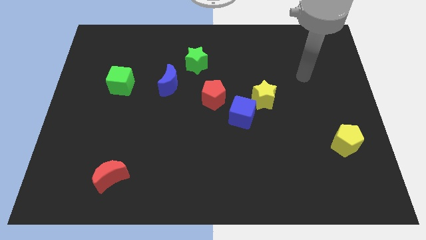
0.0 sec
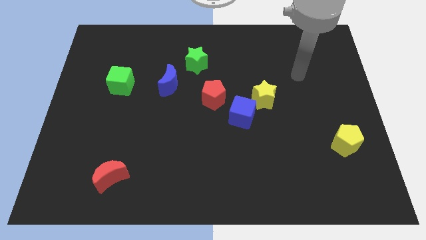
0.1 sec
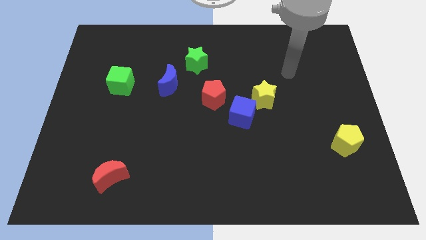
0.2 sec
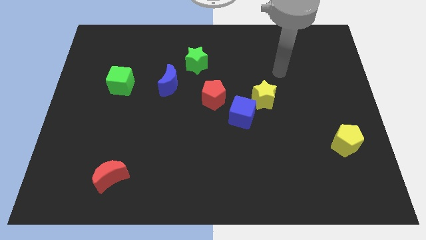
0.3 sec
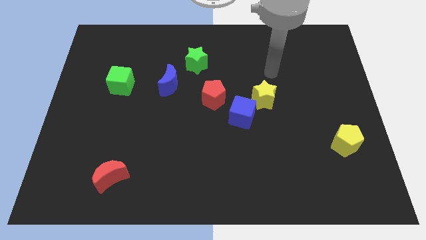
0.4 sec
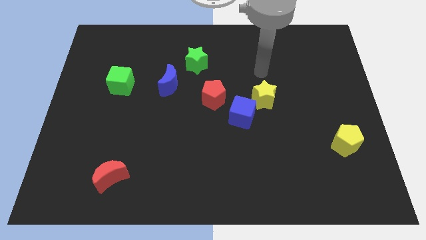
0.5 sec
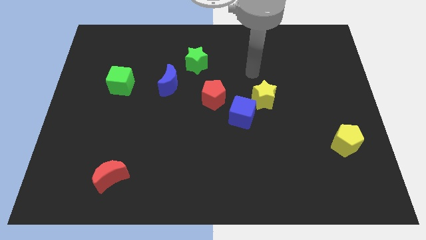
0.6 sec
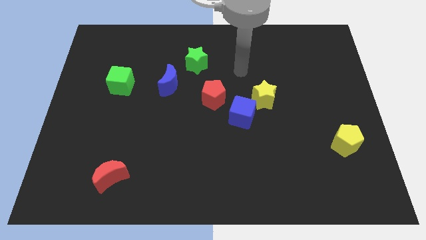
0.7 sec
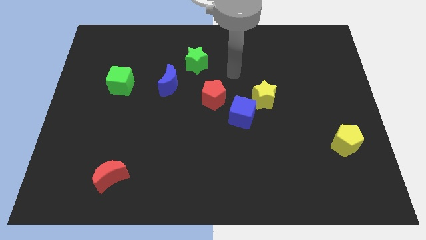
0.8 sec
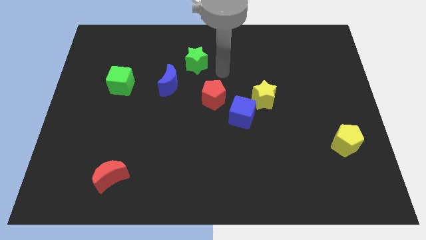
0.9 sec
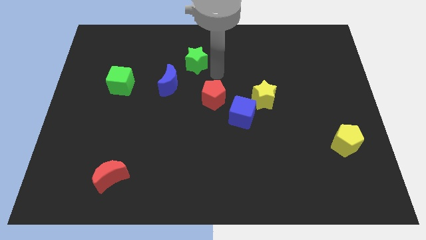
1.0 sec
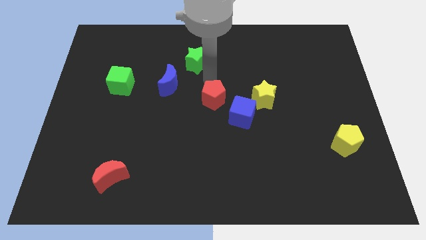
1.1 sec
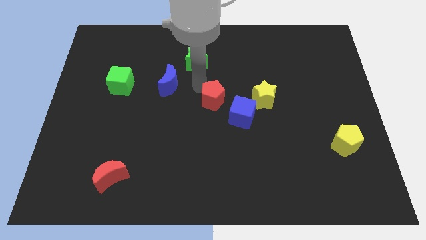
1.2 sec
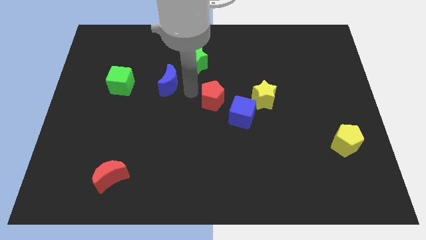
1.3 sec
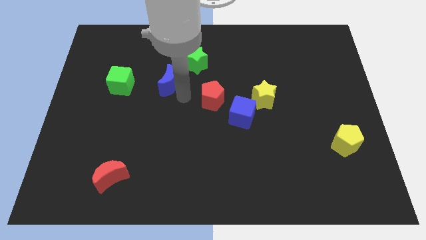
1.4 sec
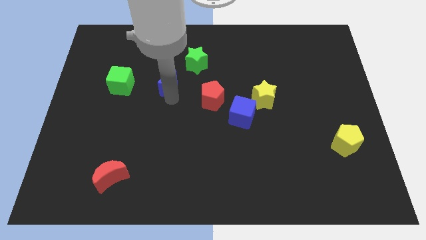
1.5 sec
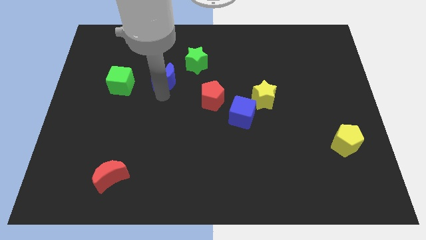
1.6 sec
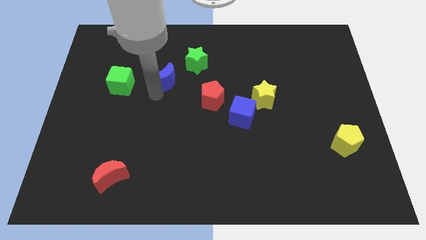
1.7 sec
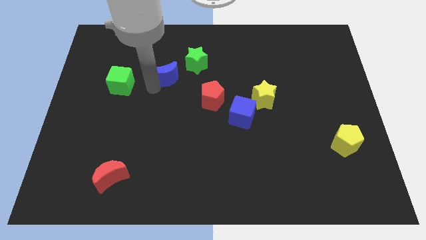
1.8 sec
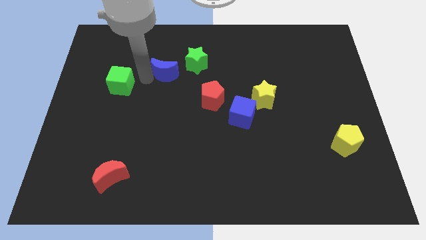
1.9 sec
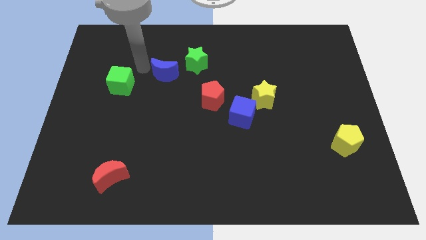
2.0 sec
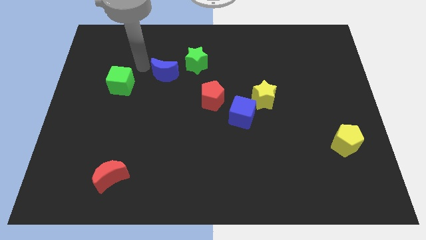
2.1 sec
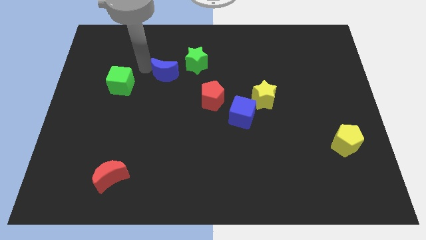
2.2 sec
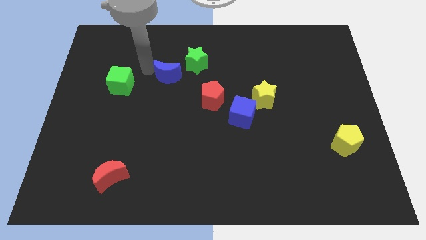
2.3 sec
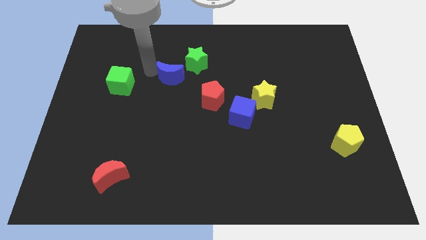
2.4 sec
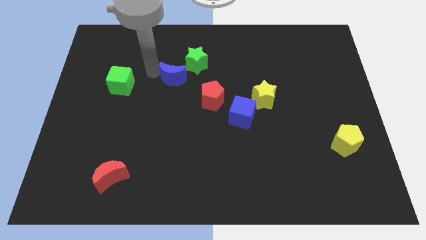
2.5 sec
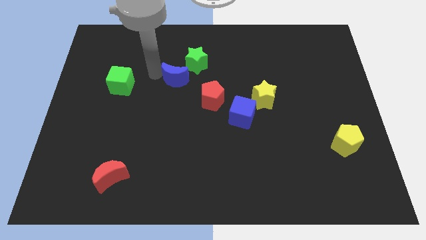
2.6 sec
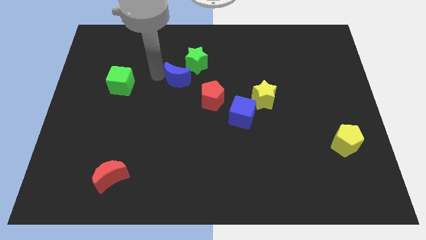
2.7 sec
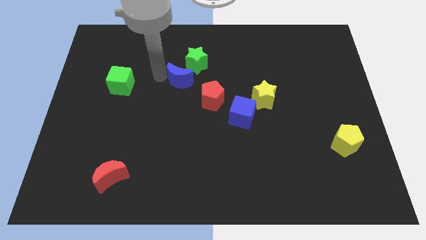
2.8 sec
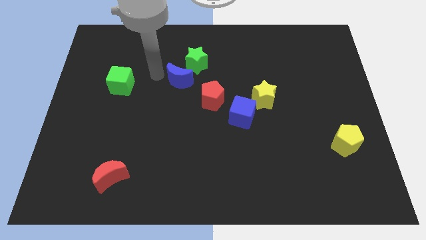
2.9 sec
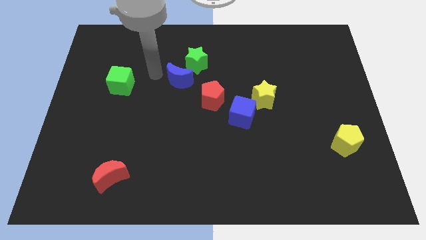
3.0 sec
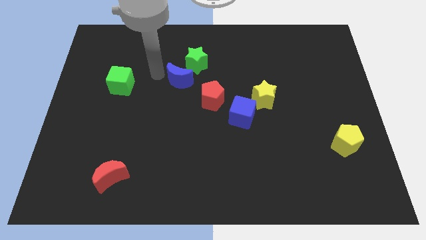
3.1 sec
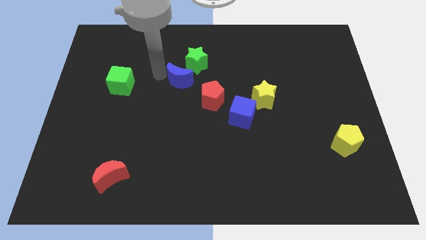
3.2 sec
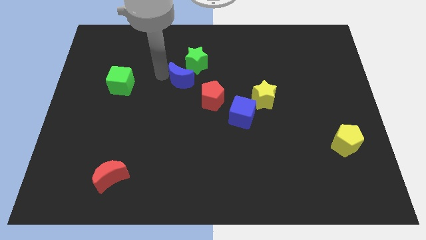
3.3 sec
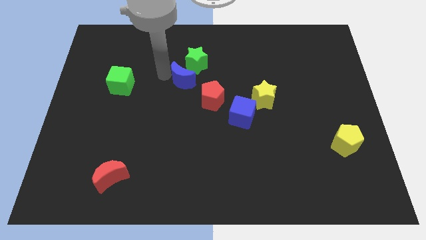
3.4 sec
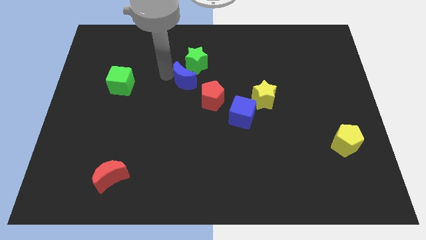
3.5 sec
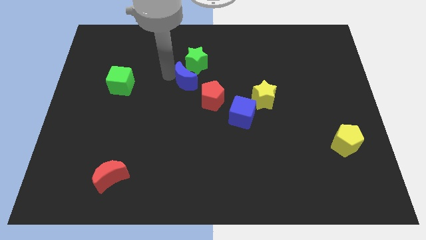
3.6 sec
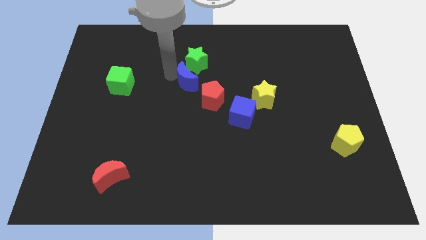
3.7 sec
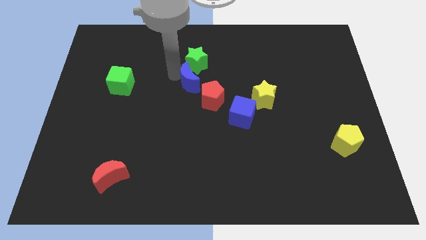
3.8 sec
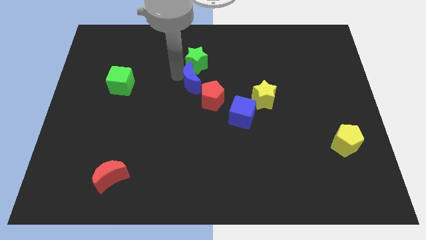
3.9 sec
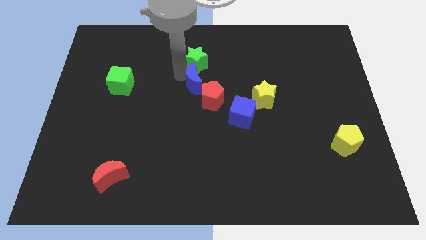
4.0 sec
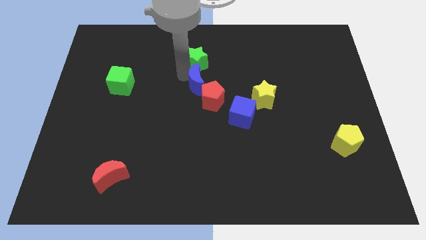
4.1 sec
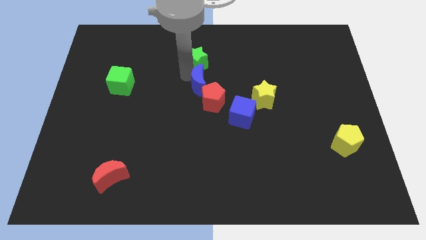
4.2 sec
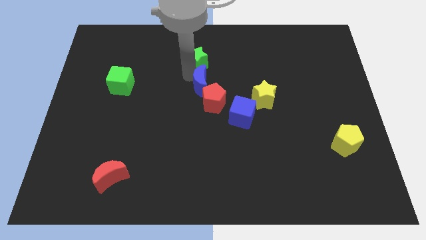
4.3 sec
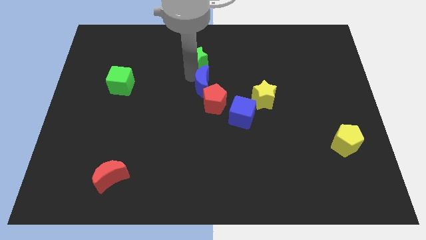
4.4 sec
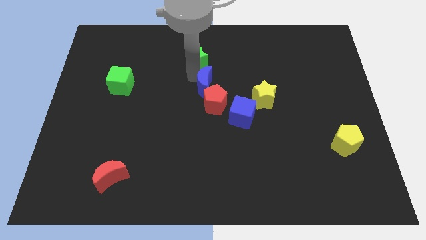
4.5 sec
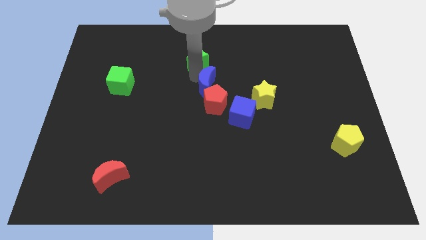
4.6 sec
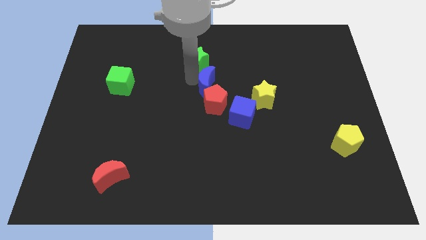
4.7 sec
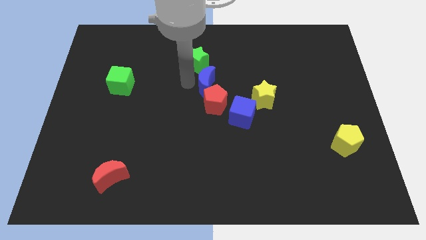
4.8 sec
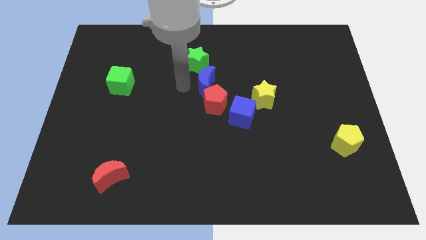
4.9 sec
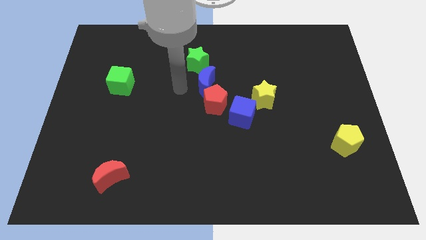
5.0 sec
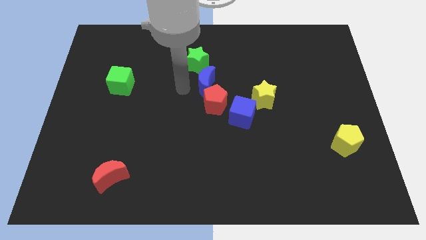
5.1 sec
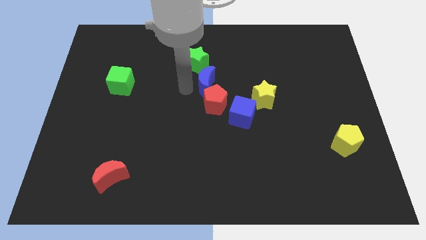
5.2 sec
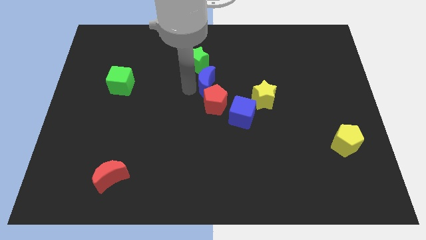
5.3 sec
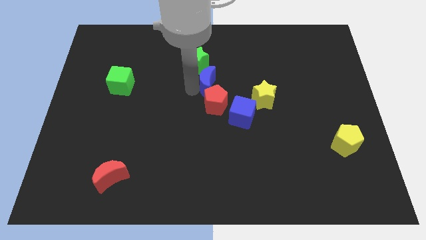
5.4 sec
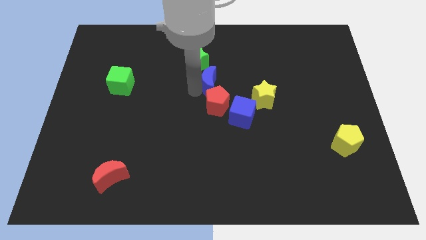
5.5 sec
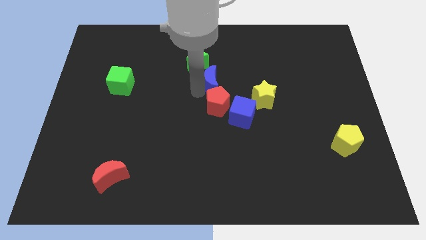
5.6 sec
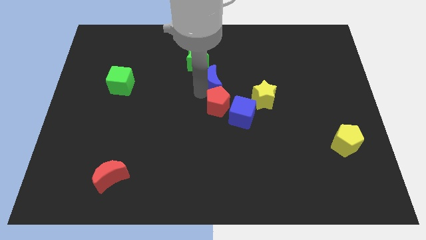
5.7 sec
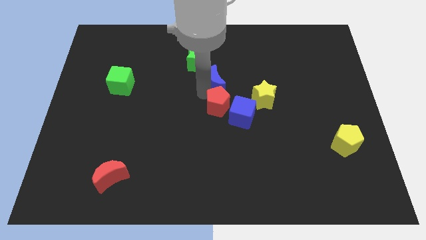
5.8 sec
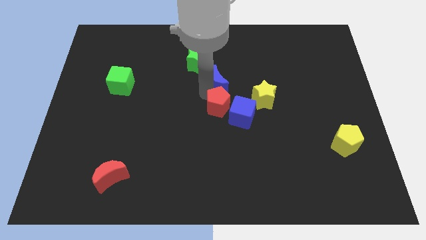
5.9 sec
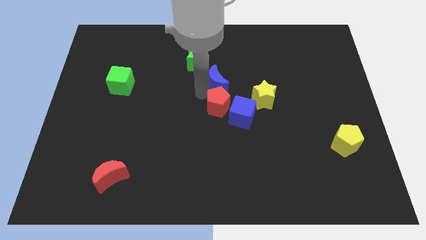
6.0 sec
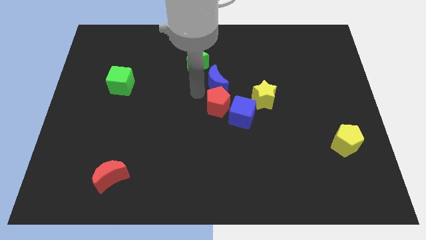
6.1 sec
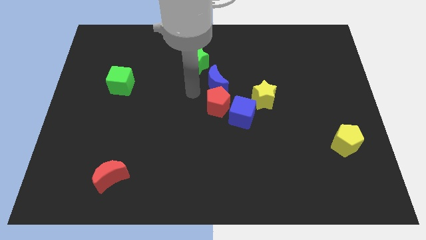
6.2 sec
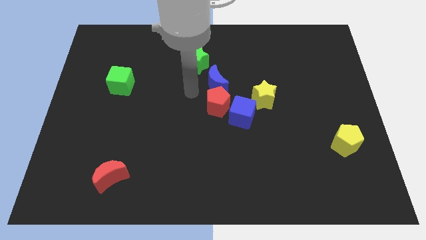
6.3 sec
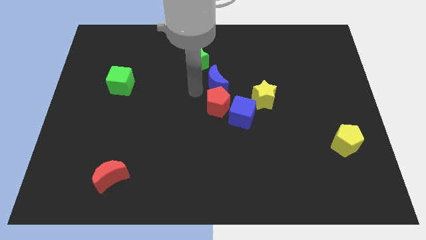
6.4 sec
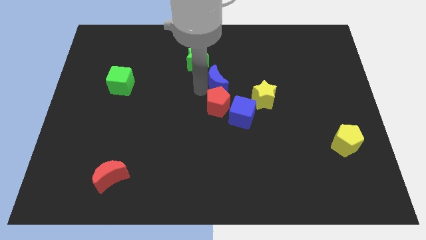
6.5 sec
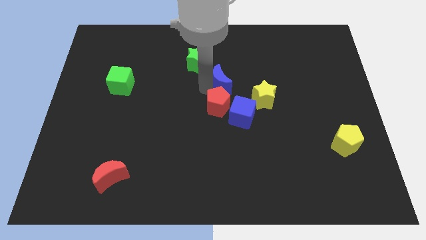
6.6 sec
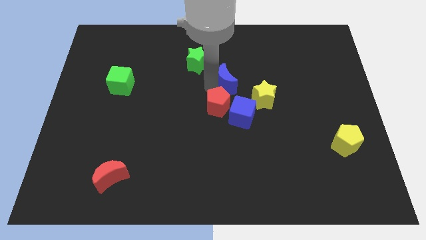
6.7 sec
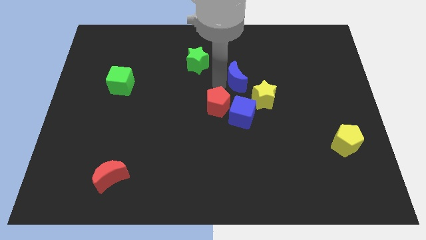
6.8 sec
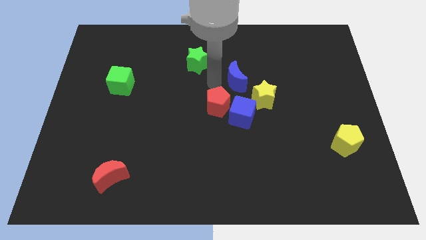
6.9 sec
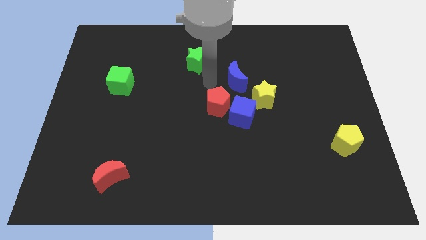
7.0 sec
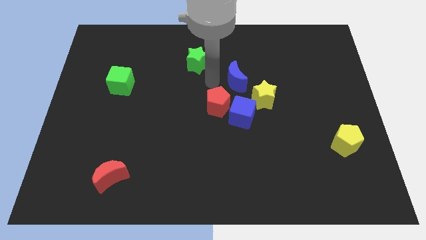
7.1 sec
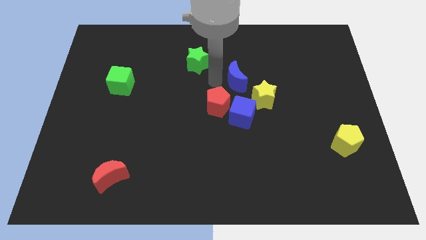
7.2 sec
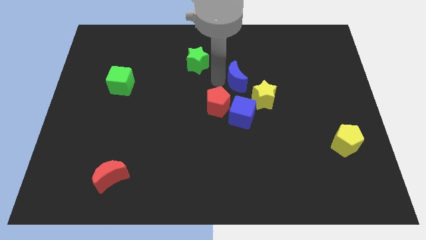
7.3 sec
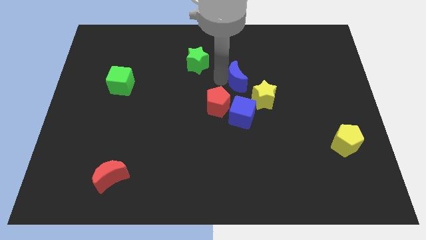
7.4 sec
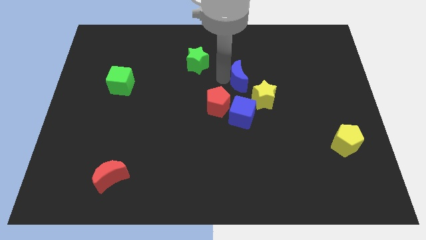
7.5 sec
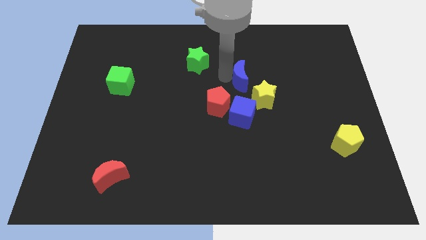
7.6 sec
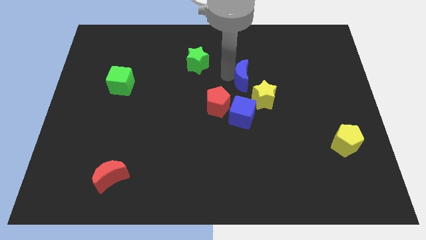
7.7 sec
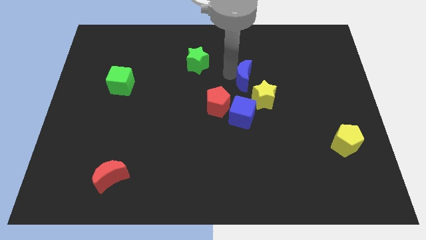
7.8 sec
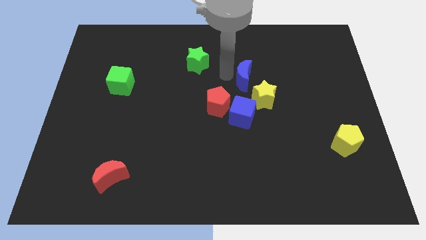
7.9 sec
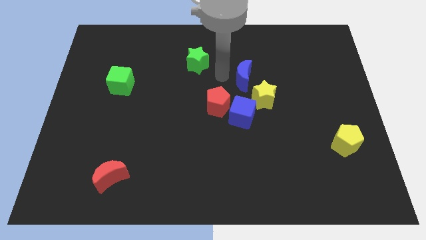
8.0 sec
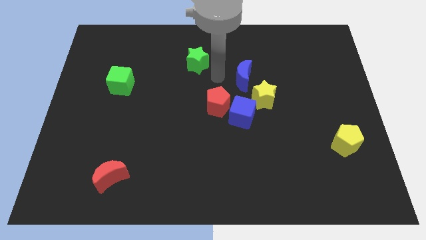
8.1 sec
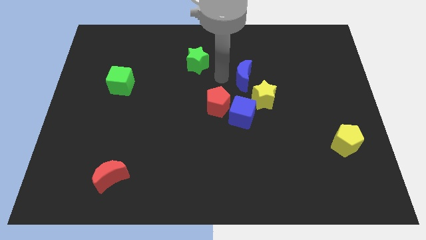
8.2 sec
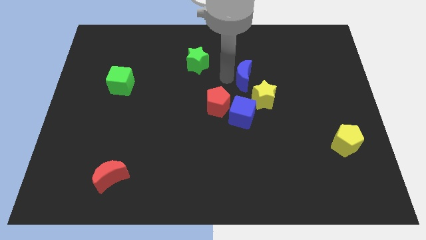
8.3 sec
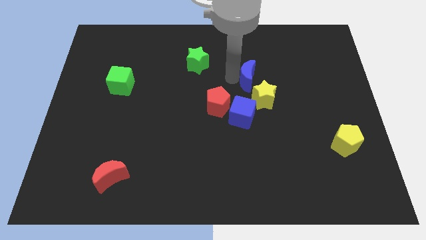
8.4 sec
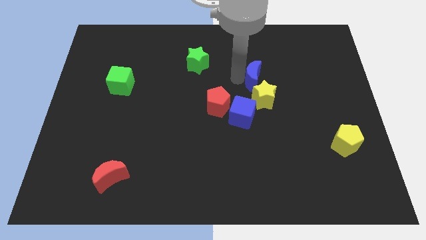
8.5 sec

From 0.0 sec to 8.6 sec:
slide the blue moon to the right
